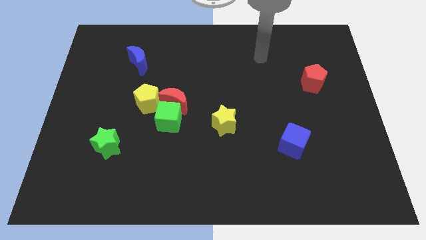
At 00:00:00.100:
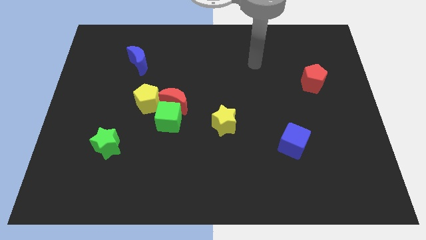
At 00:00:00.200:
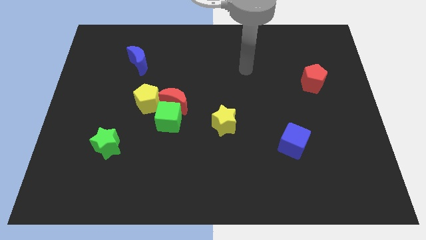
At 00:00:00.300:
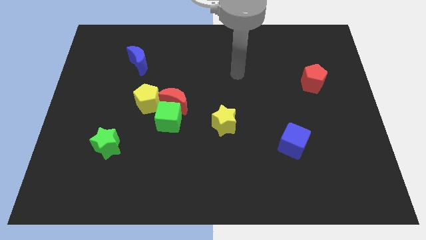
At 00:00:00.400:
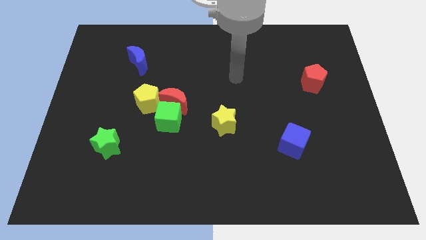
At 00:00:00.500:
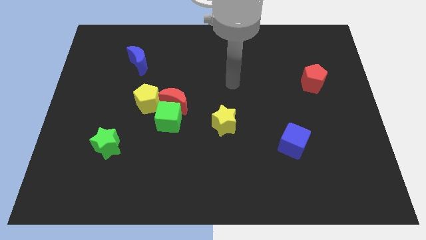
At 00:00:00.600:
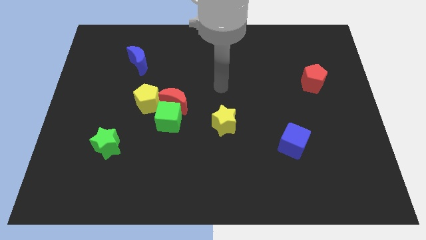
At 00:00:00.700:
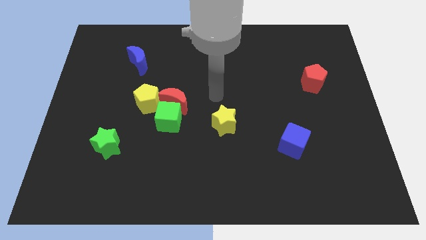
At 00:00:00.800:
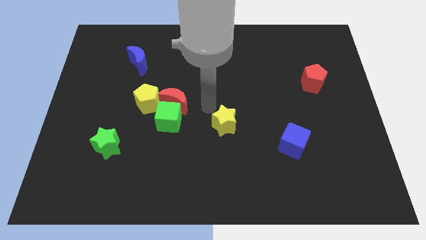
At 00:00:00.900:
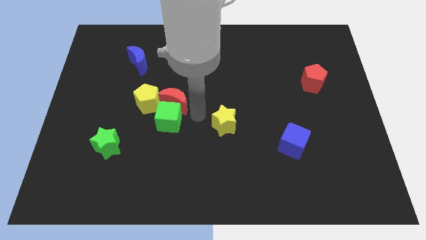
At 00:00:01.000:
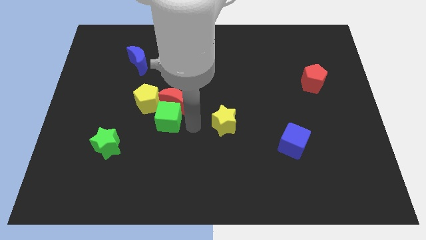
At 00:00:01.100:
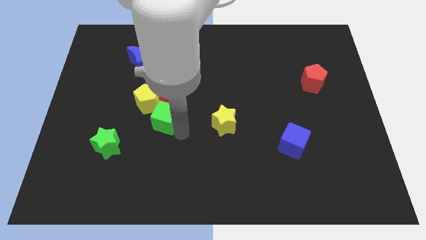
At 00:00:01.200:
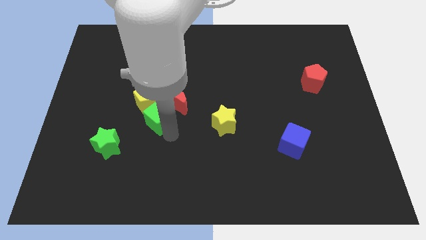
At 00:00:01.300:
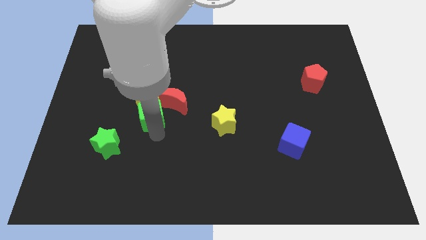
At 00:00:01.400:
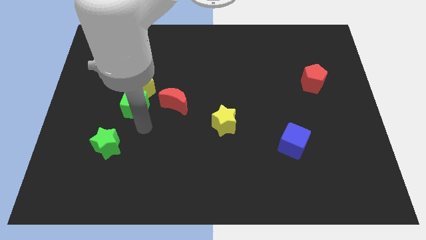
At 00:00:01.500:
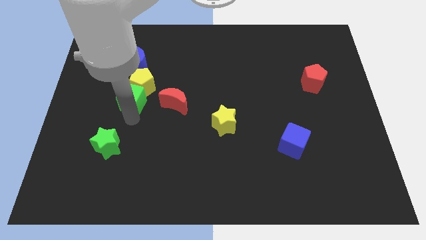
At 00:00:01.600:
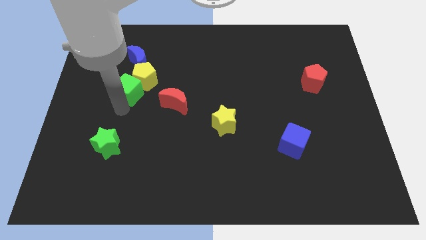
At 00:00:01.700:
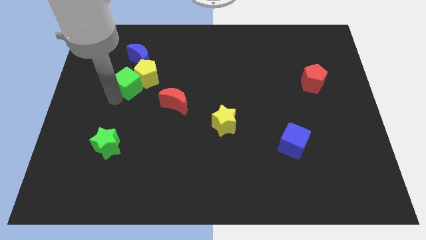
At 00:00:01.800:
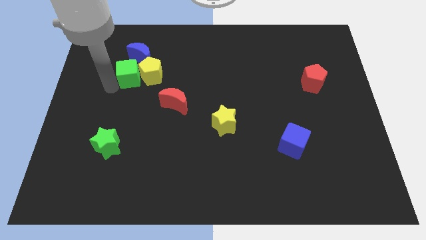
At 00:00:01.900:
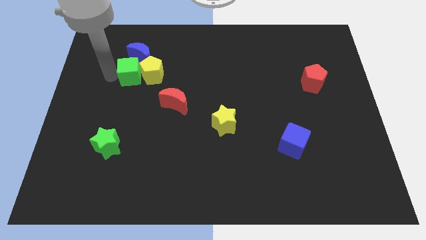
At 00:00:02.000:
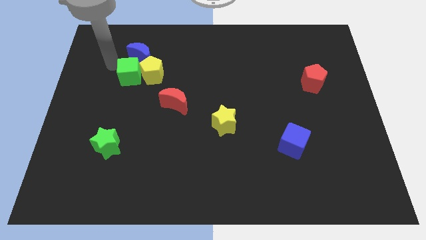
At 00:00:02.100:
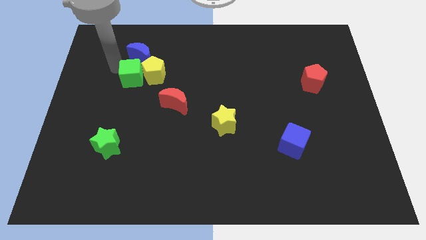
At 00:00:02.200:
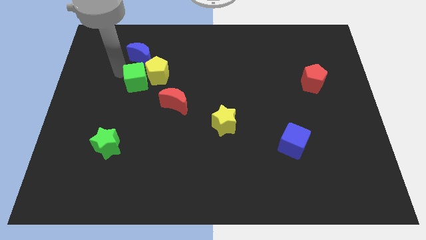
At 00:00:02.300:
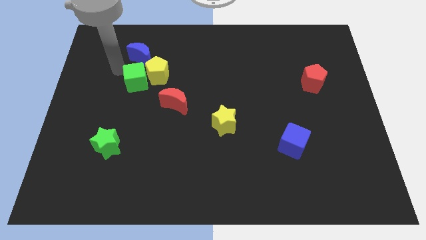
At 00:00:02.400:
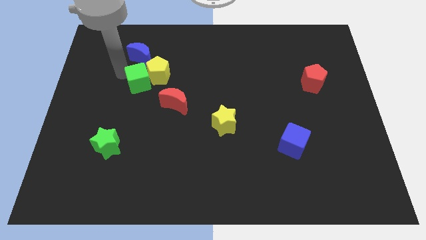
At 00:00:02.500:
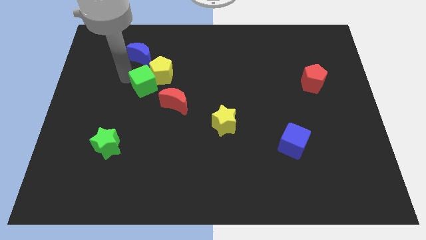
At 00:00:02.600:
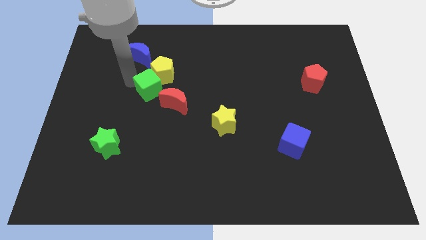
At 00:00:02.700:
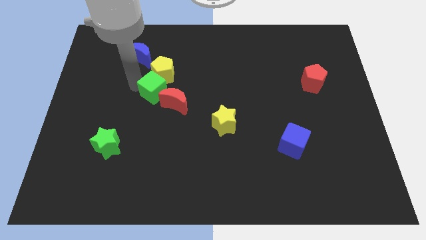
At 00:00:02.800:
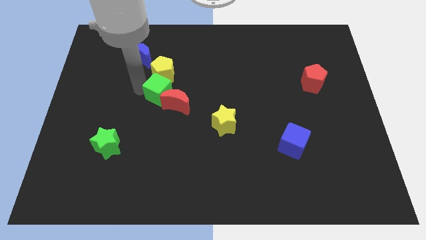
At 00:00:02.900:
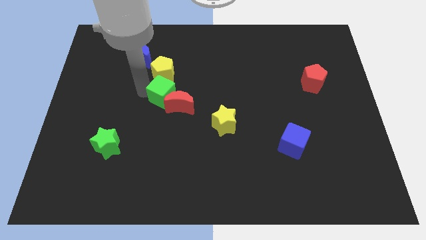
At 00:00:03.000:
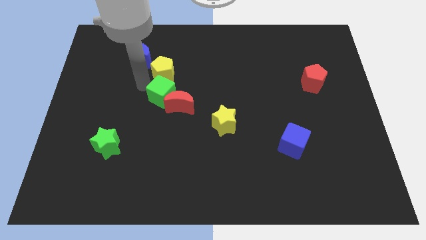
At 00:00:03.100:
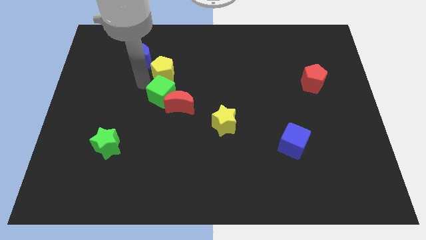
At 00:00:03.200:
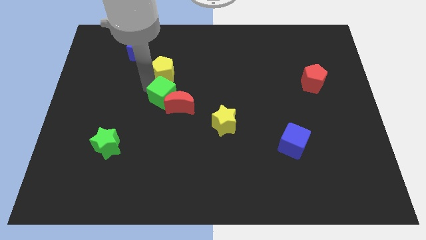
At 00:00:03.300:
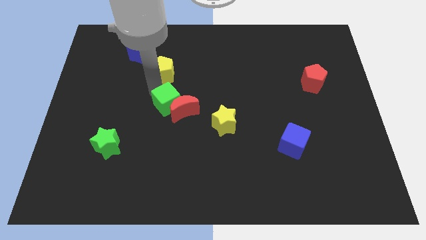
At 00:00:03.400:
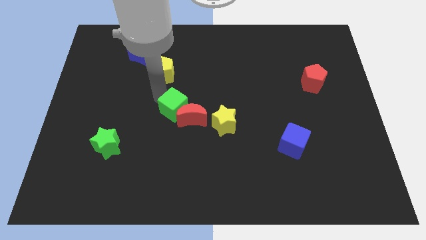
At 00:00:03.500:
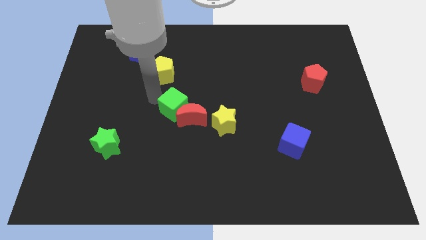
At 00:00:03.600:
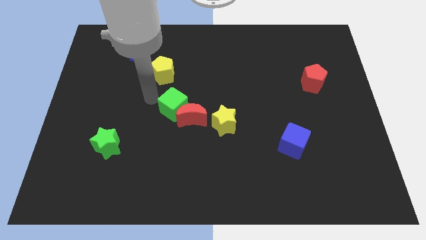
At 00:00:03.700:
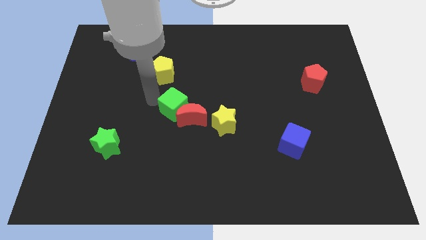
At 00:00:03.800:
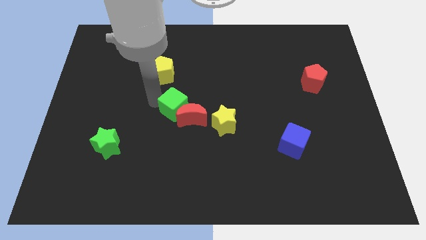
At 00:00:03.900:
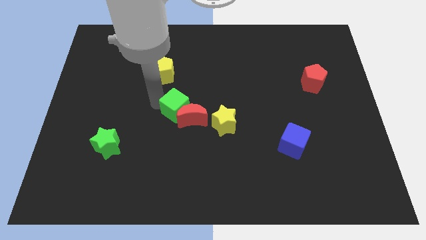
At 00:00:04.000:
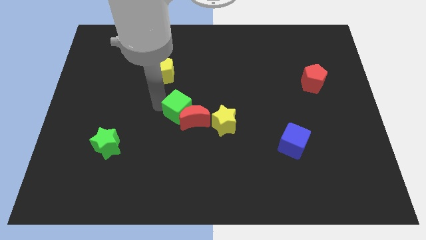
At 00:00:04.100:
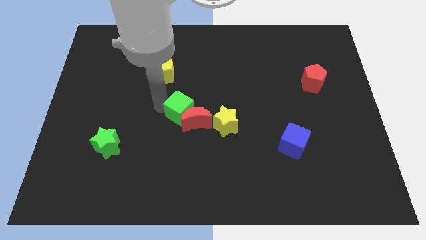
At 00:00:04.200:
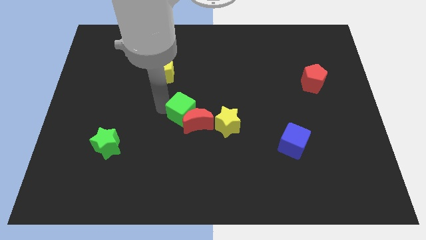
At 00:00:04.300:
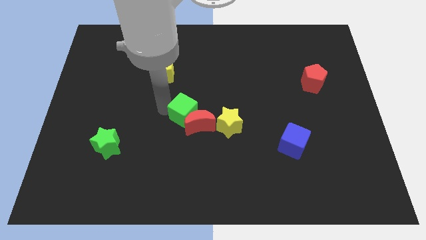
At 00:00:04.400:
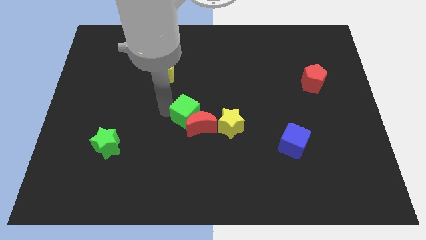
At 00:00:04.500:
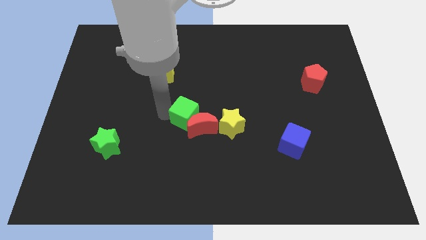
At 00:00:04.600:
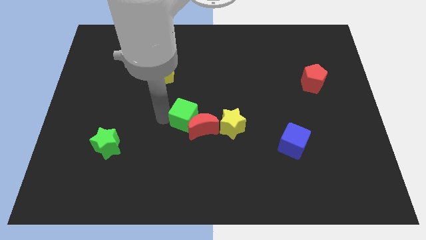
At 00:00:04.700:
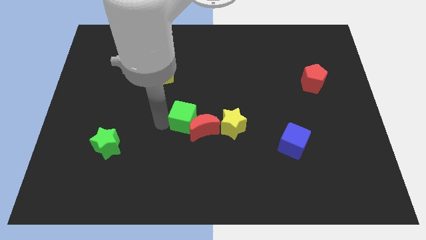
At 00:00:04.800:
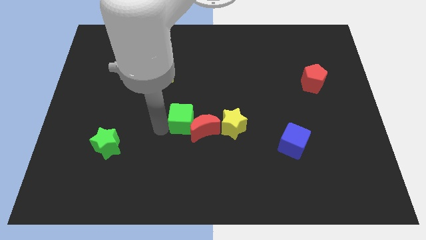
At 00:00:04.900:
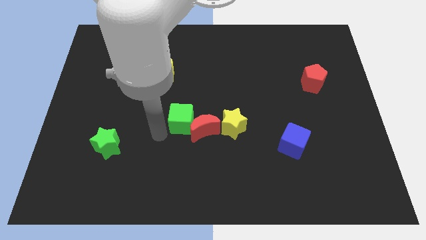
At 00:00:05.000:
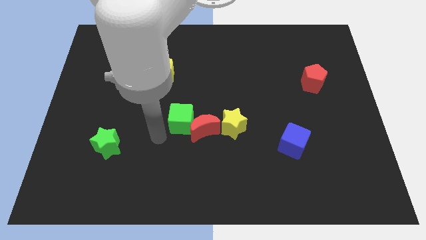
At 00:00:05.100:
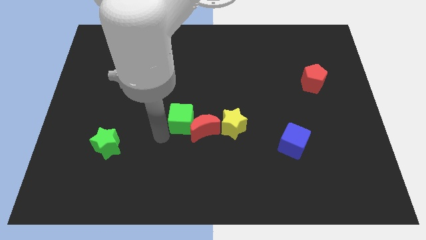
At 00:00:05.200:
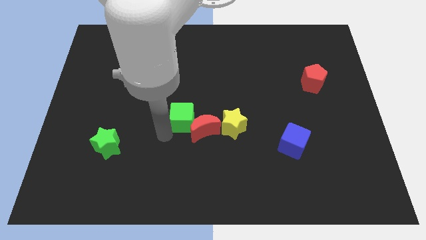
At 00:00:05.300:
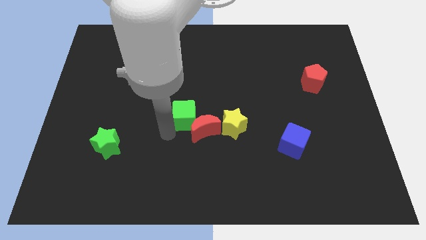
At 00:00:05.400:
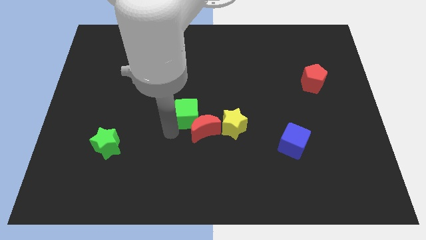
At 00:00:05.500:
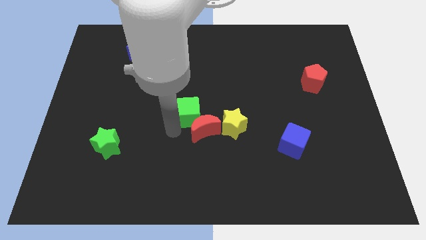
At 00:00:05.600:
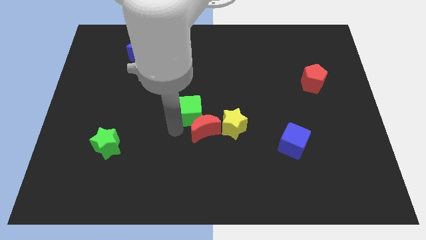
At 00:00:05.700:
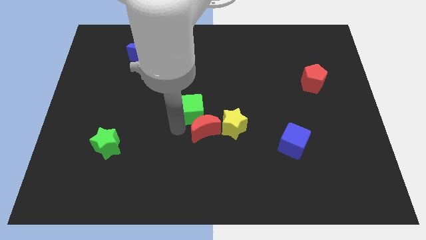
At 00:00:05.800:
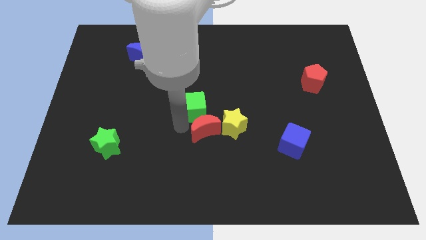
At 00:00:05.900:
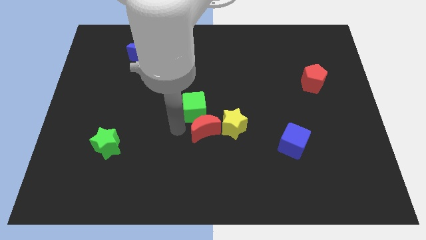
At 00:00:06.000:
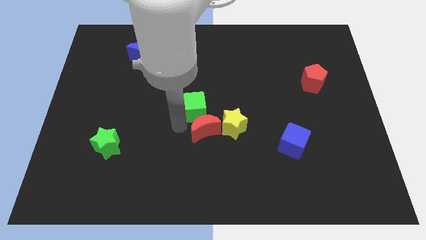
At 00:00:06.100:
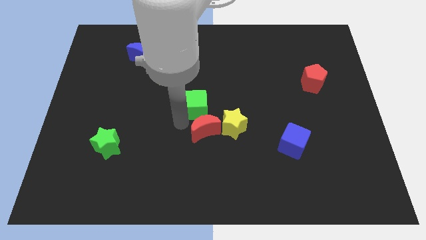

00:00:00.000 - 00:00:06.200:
push the green cube a little bit up and to the right diagonally

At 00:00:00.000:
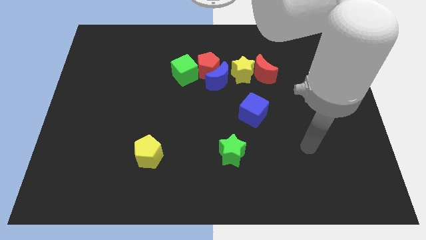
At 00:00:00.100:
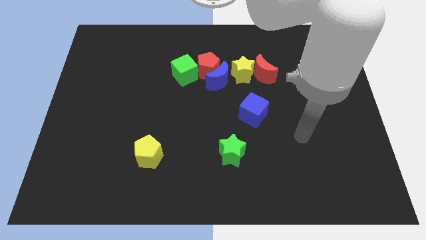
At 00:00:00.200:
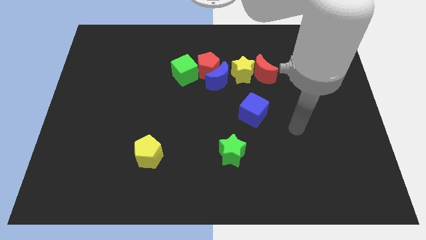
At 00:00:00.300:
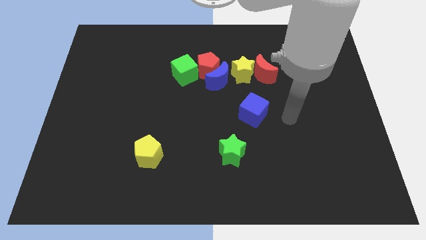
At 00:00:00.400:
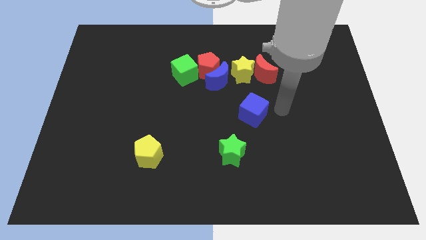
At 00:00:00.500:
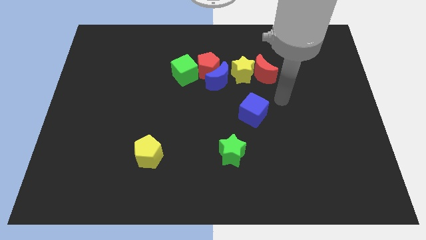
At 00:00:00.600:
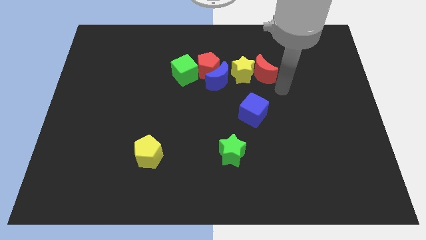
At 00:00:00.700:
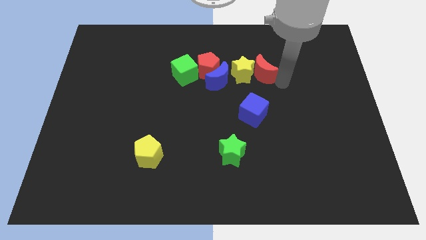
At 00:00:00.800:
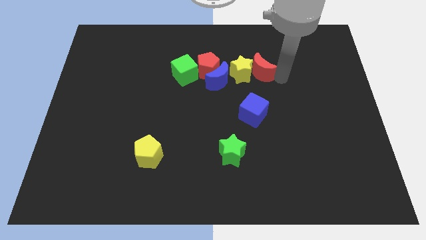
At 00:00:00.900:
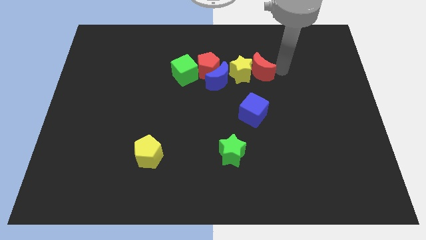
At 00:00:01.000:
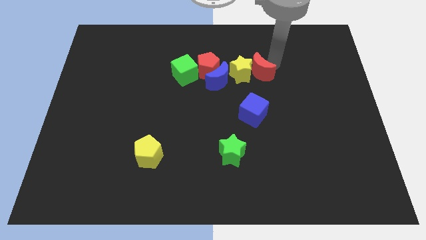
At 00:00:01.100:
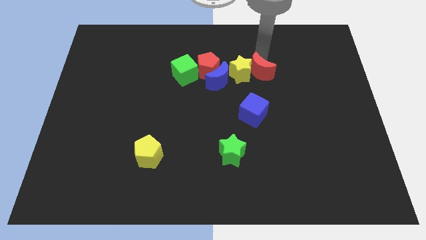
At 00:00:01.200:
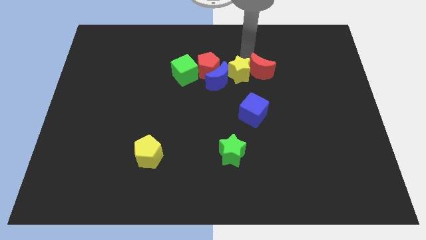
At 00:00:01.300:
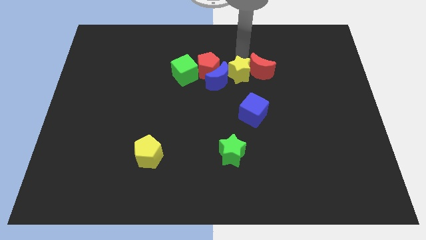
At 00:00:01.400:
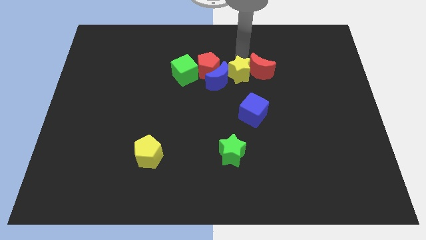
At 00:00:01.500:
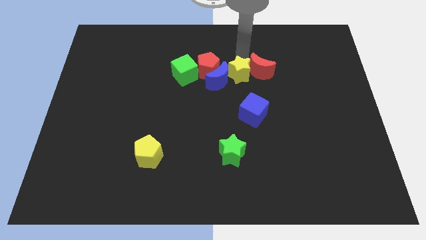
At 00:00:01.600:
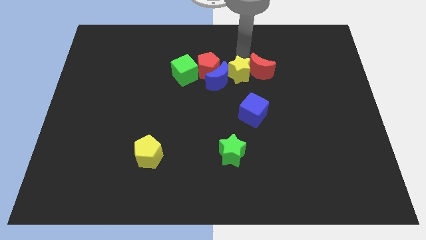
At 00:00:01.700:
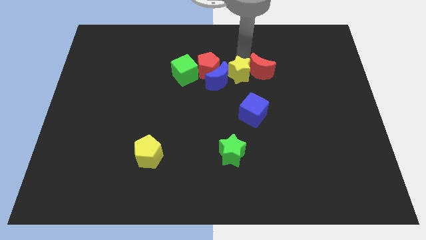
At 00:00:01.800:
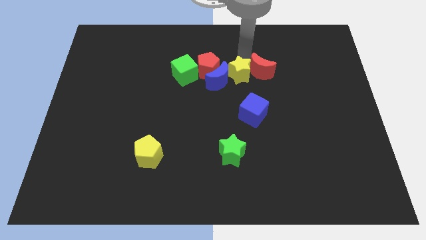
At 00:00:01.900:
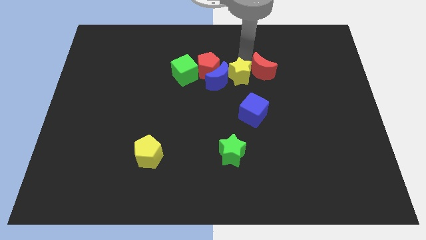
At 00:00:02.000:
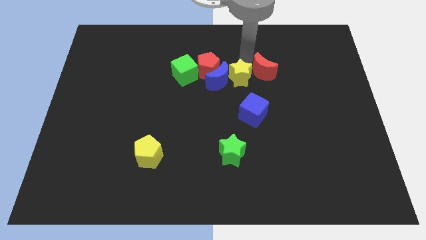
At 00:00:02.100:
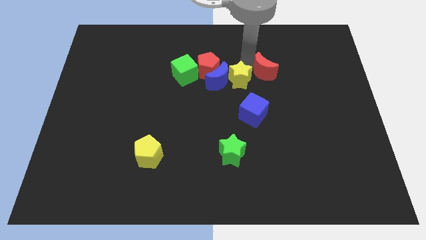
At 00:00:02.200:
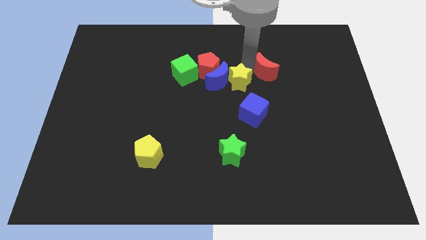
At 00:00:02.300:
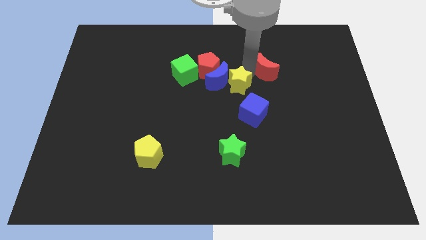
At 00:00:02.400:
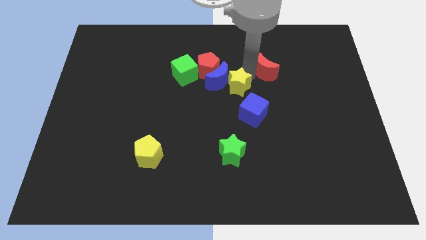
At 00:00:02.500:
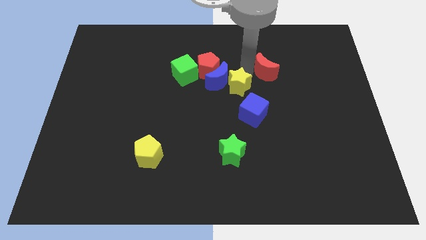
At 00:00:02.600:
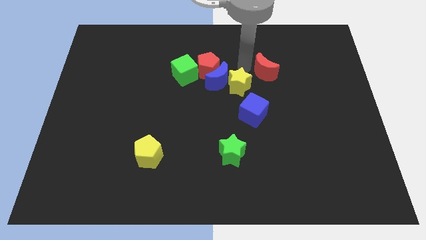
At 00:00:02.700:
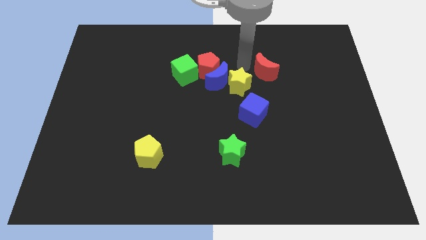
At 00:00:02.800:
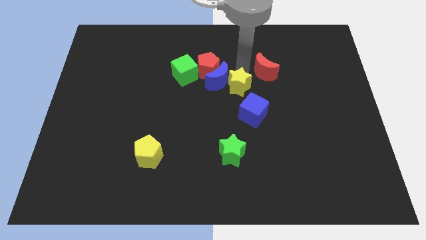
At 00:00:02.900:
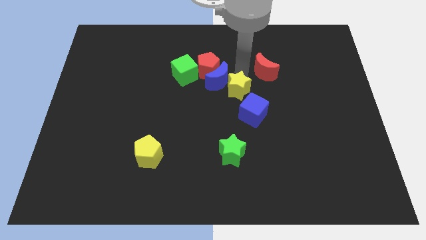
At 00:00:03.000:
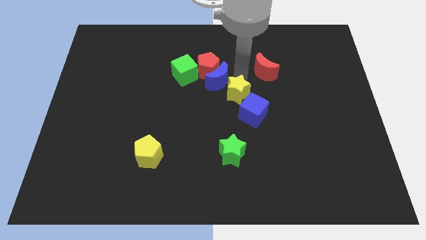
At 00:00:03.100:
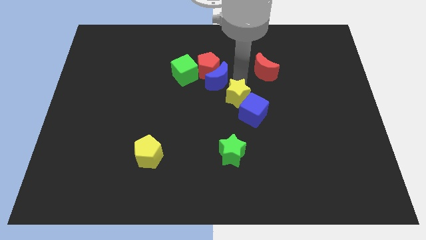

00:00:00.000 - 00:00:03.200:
slightly slide the yellow star down
